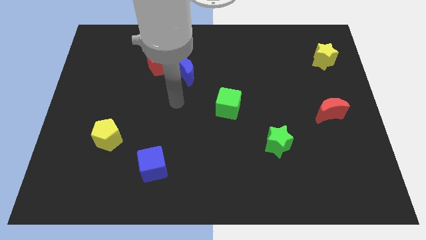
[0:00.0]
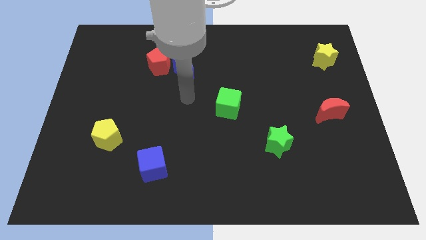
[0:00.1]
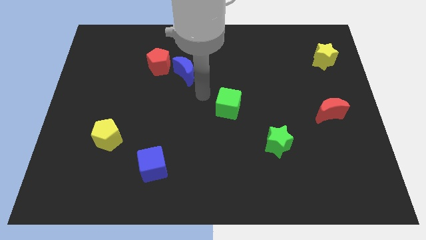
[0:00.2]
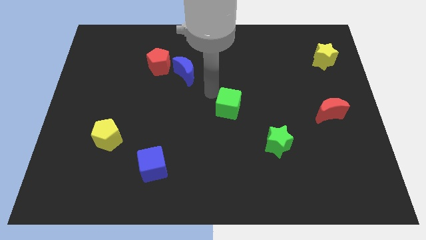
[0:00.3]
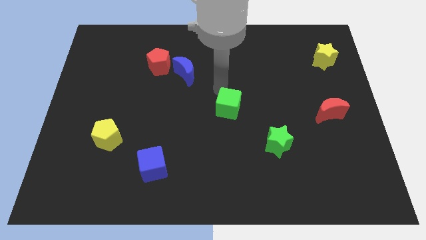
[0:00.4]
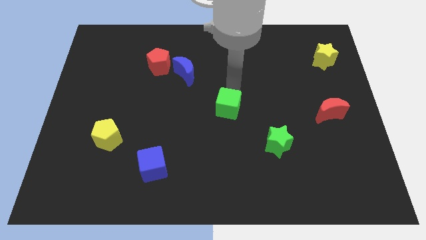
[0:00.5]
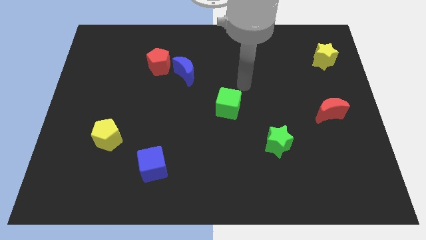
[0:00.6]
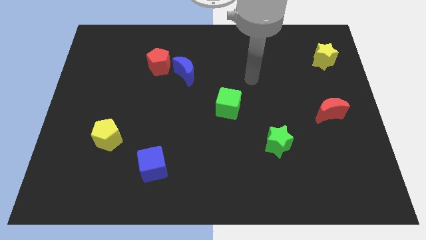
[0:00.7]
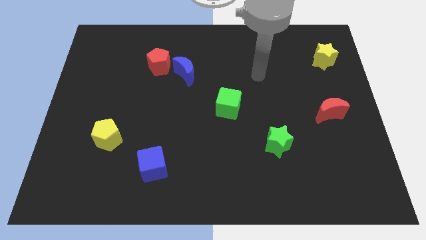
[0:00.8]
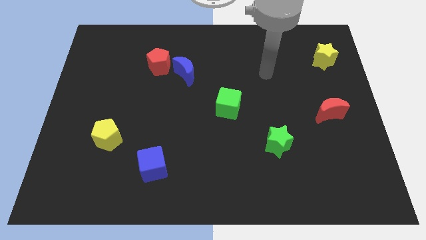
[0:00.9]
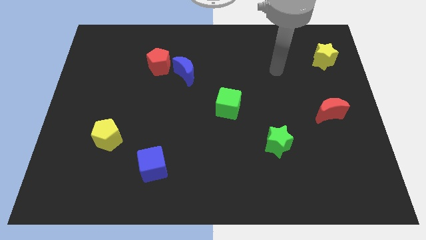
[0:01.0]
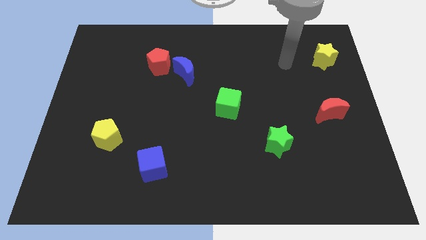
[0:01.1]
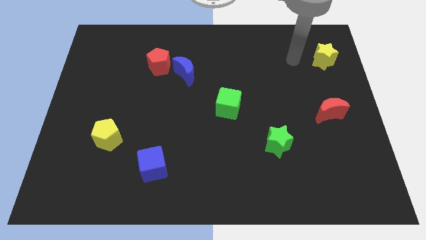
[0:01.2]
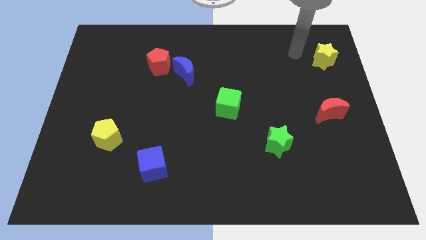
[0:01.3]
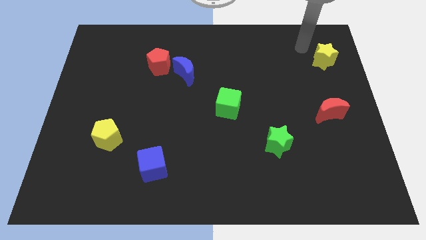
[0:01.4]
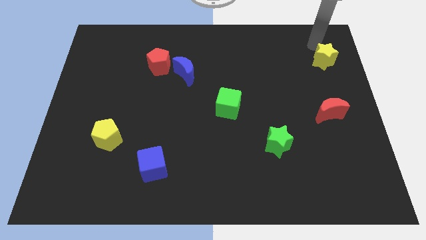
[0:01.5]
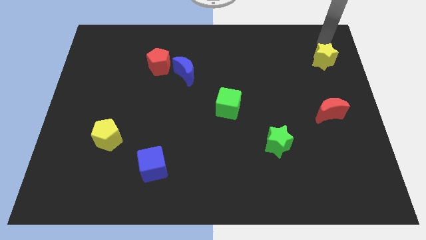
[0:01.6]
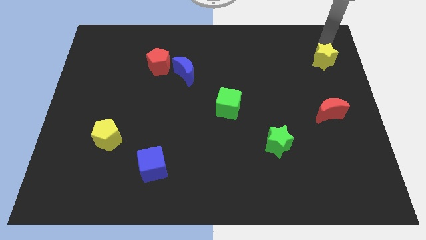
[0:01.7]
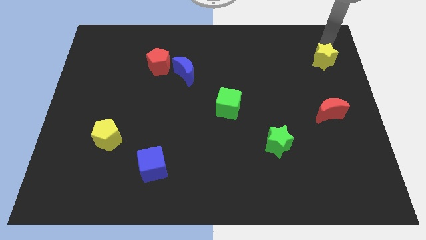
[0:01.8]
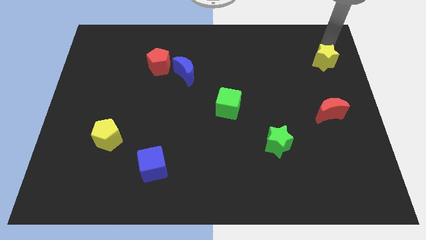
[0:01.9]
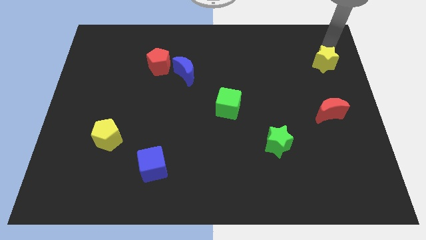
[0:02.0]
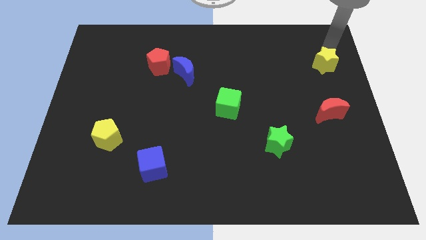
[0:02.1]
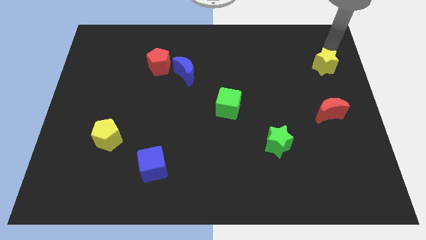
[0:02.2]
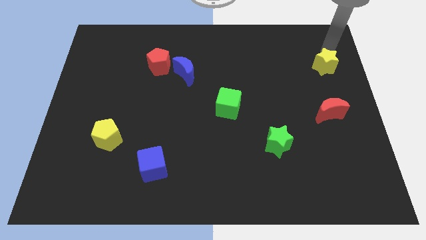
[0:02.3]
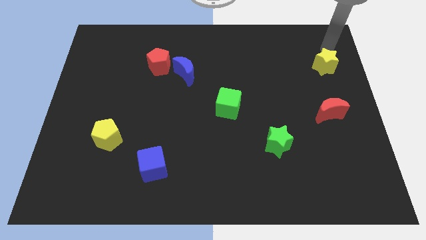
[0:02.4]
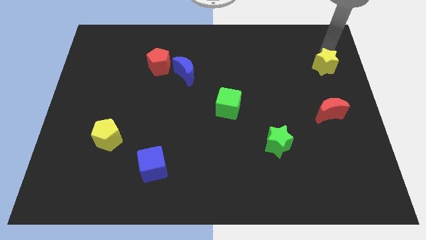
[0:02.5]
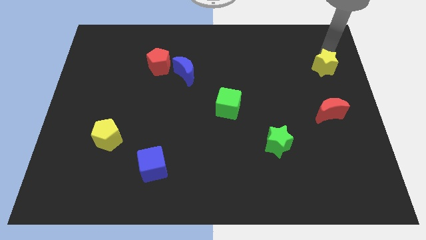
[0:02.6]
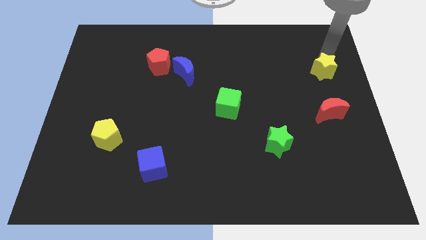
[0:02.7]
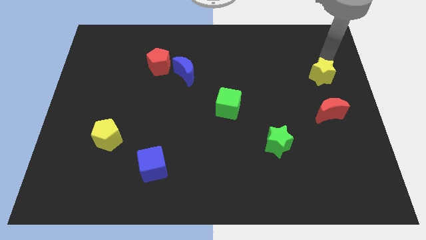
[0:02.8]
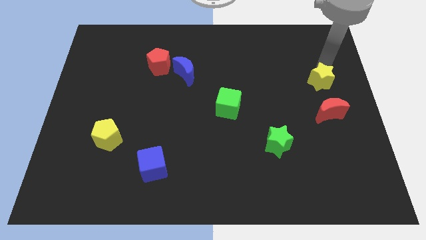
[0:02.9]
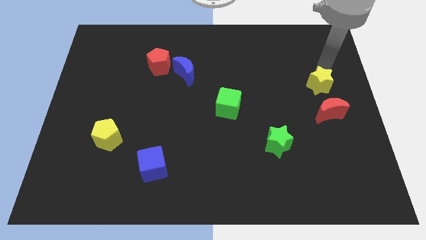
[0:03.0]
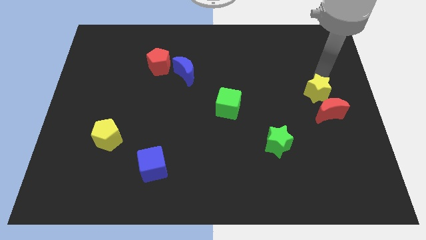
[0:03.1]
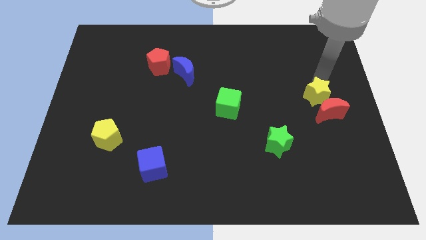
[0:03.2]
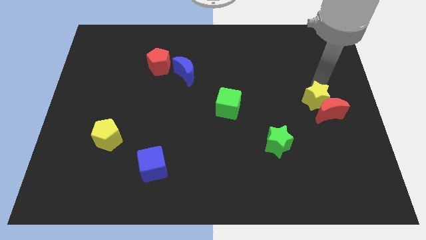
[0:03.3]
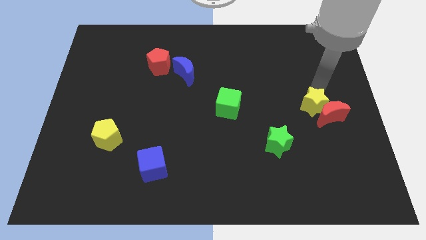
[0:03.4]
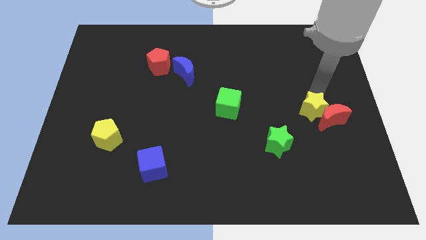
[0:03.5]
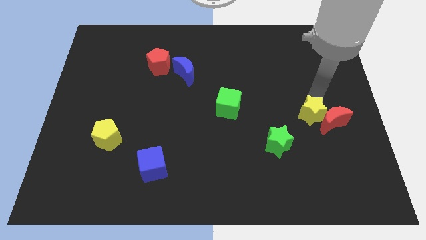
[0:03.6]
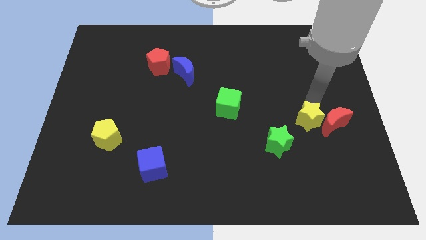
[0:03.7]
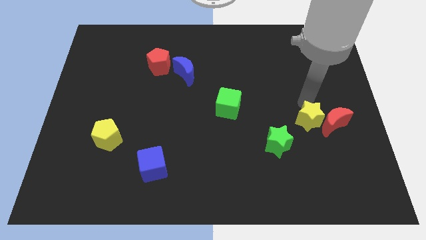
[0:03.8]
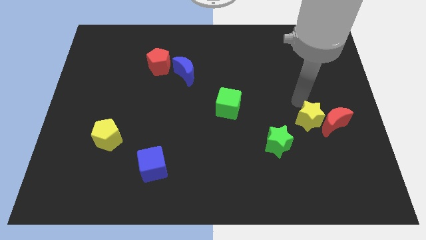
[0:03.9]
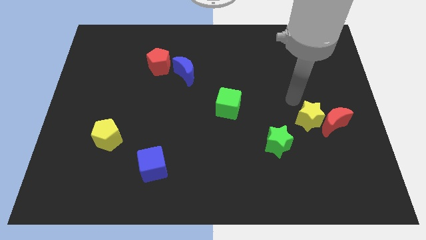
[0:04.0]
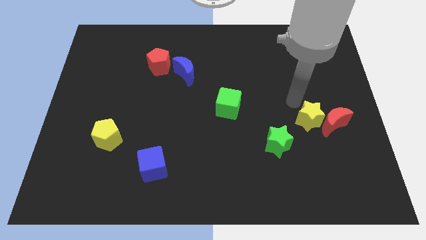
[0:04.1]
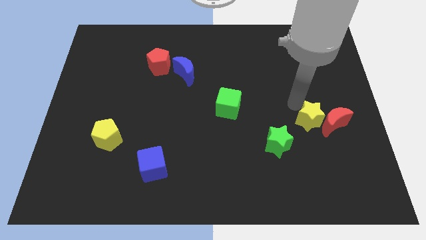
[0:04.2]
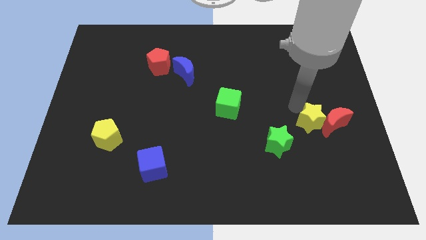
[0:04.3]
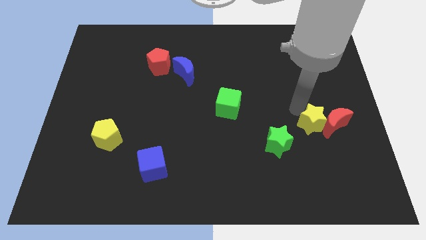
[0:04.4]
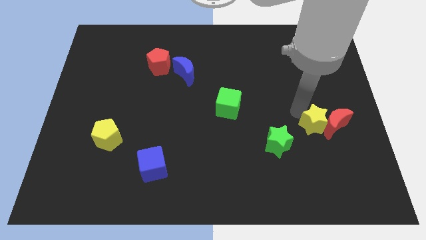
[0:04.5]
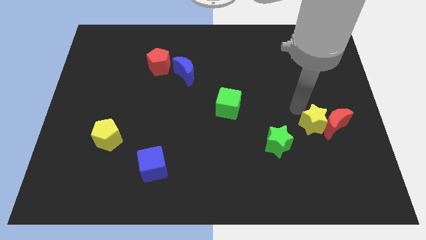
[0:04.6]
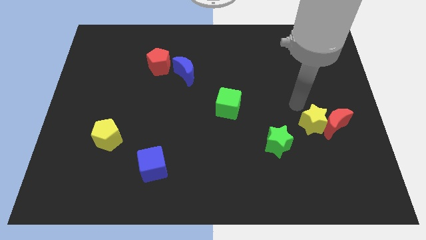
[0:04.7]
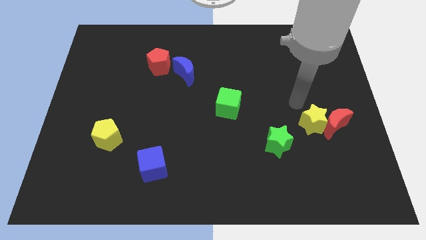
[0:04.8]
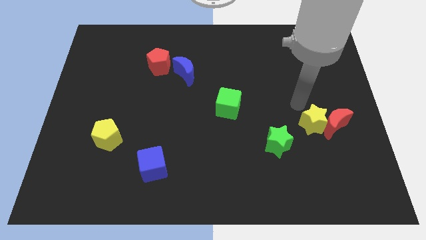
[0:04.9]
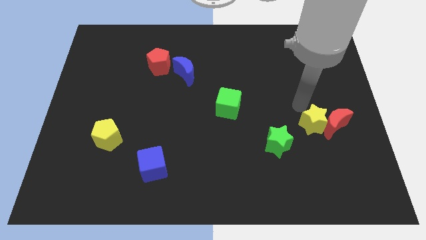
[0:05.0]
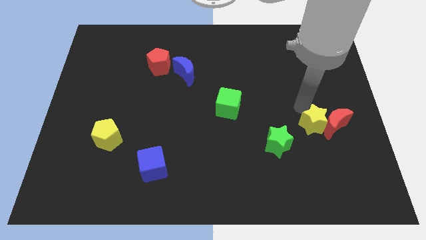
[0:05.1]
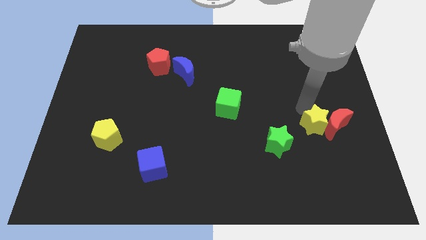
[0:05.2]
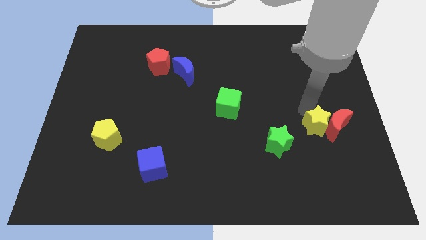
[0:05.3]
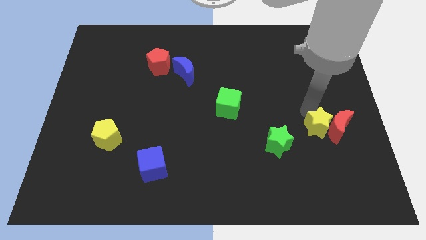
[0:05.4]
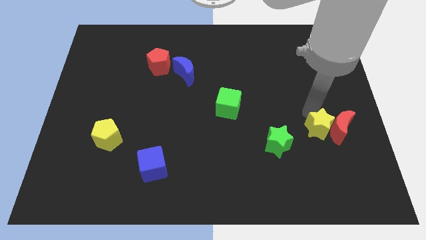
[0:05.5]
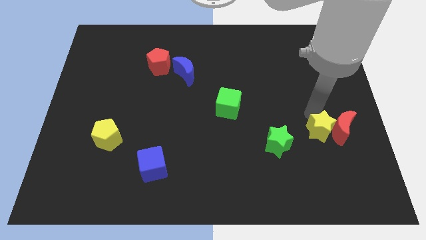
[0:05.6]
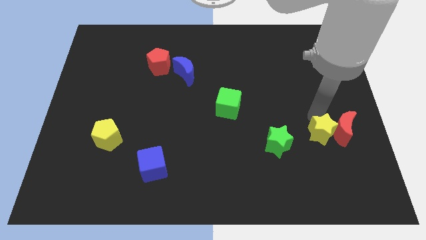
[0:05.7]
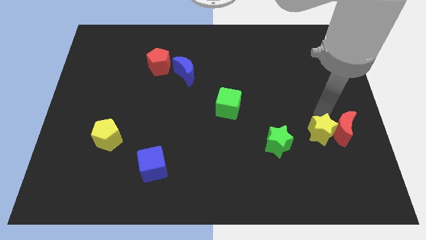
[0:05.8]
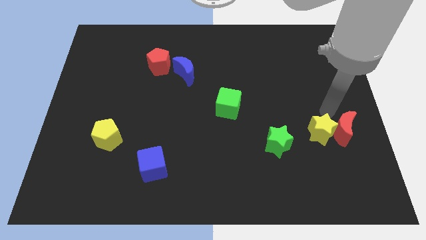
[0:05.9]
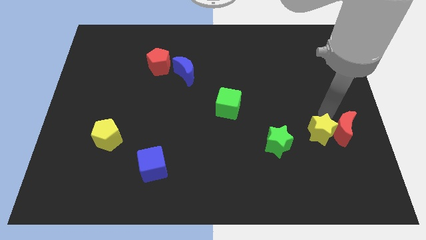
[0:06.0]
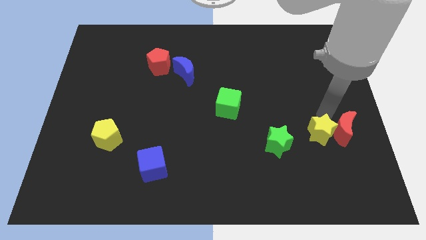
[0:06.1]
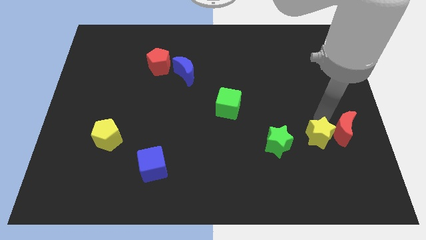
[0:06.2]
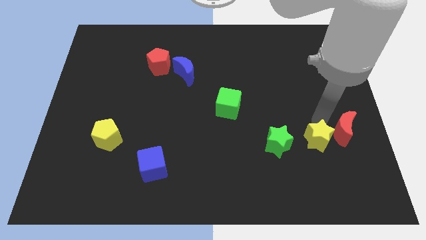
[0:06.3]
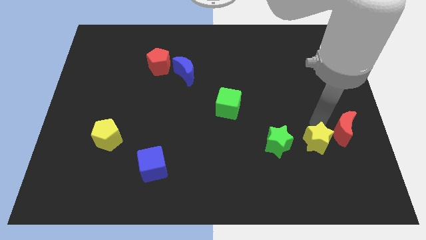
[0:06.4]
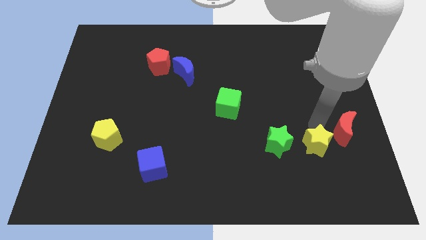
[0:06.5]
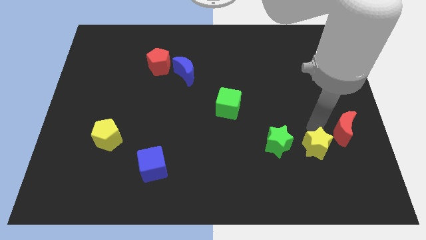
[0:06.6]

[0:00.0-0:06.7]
put the yellow star to the bottom right side of the green star

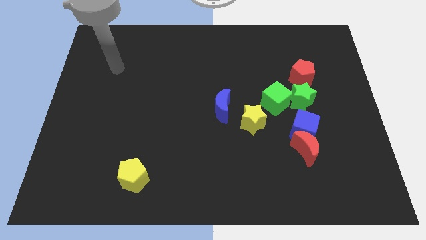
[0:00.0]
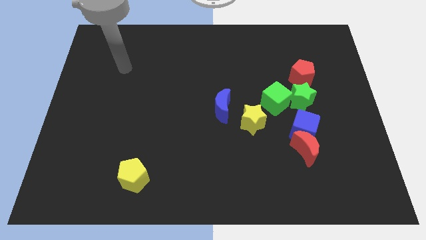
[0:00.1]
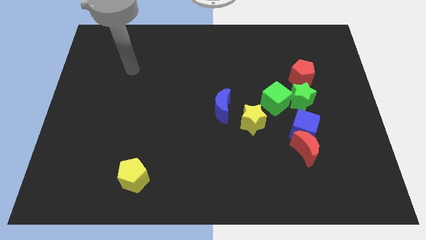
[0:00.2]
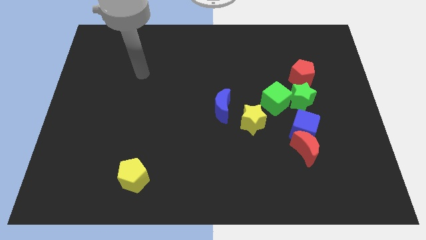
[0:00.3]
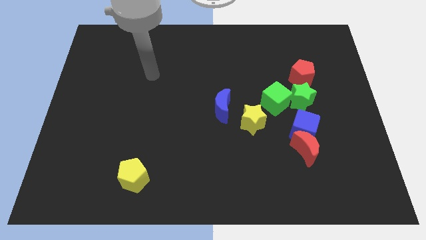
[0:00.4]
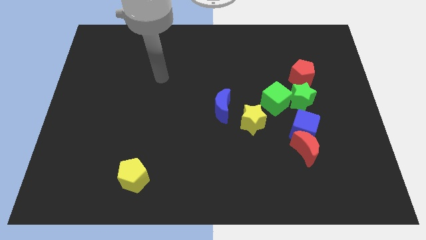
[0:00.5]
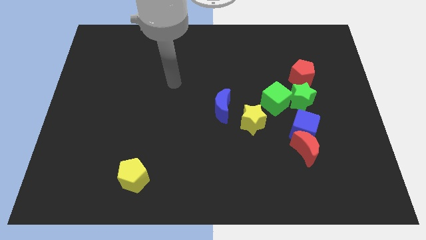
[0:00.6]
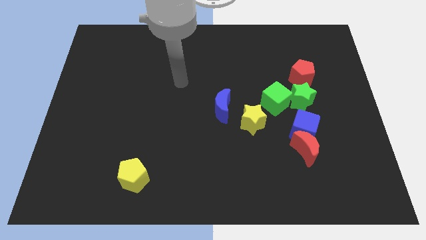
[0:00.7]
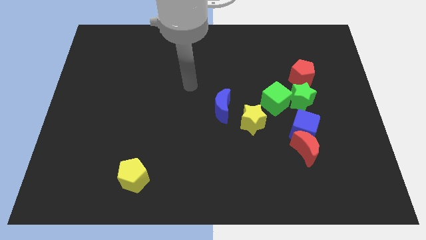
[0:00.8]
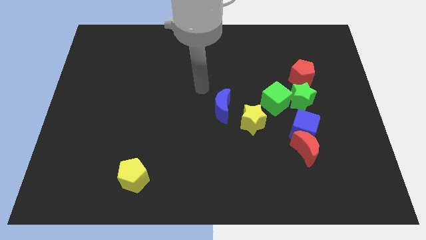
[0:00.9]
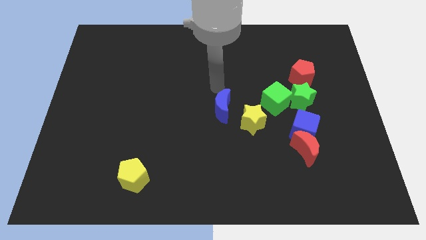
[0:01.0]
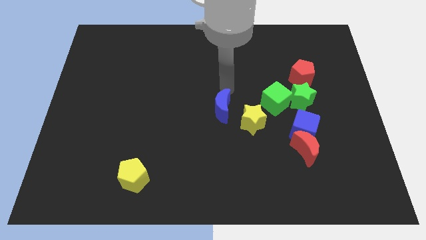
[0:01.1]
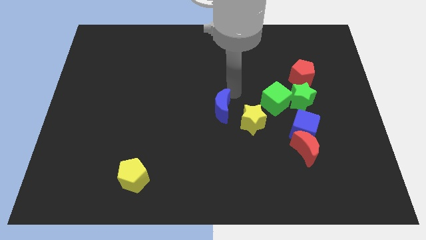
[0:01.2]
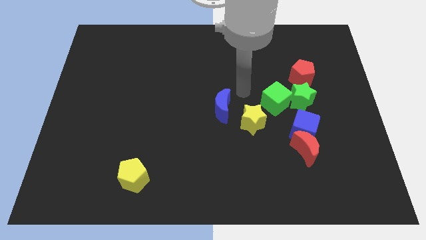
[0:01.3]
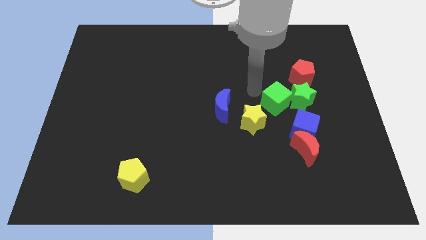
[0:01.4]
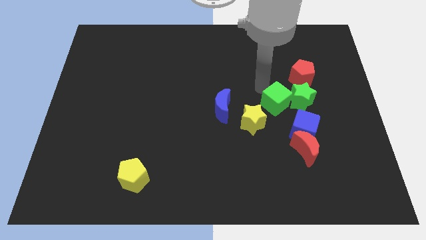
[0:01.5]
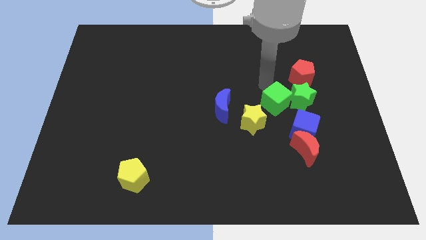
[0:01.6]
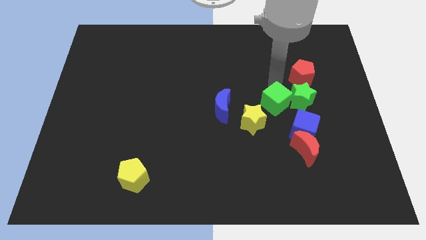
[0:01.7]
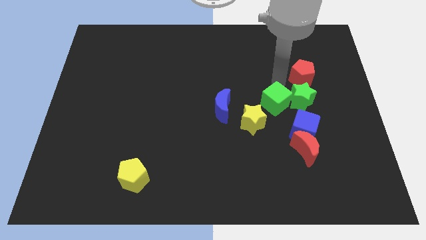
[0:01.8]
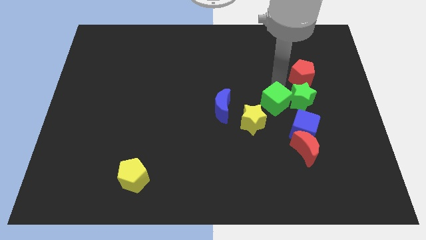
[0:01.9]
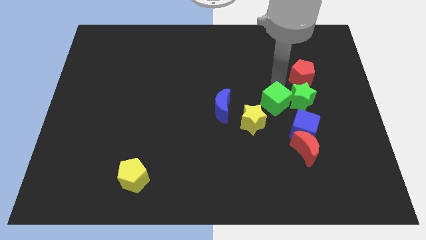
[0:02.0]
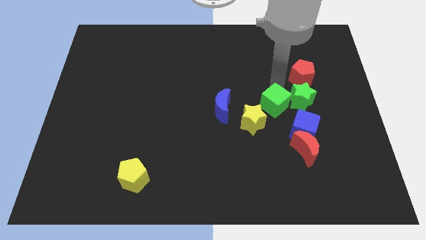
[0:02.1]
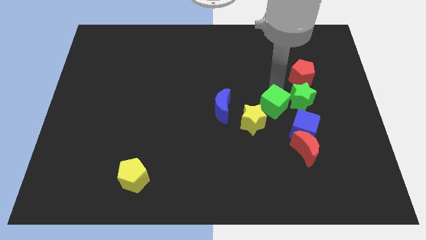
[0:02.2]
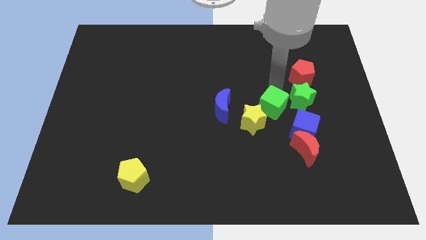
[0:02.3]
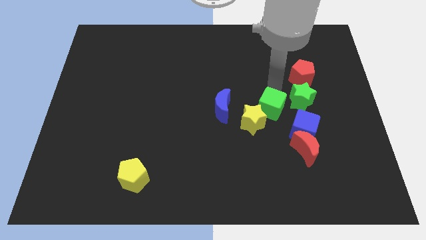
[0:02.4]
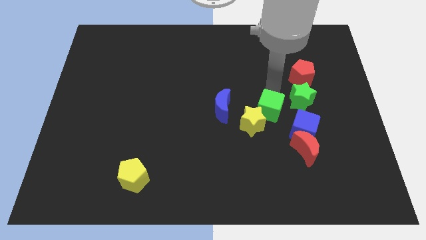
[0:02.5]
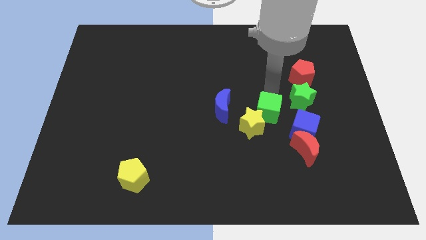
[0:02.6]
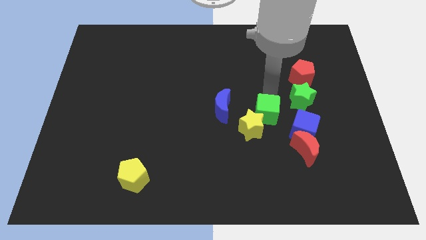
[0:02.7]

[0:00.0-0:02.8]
slide the green cube to the left of the blue cube
